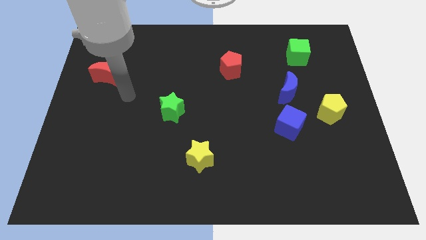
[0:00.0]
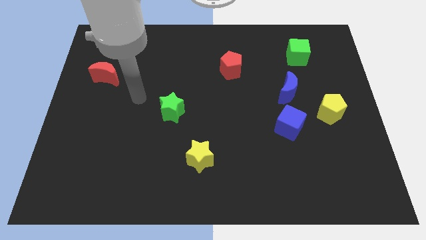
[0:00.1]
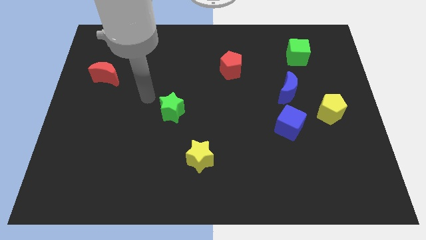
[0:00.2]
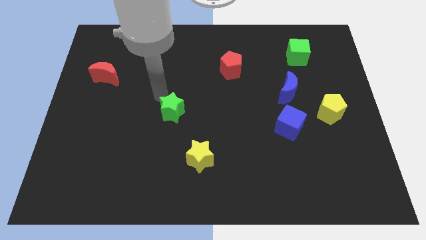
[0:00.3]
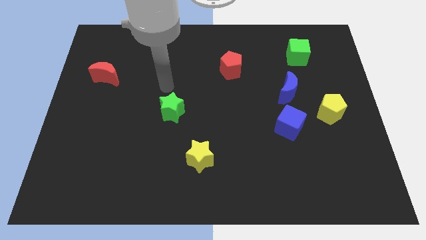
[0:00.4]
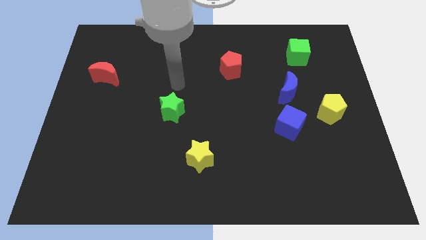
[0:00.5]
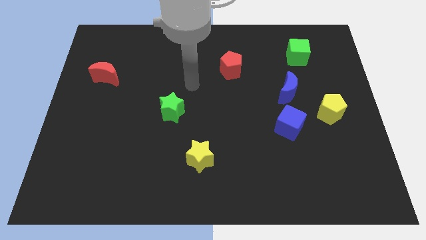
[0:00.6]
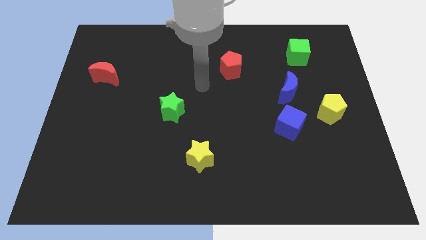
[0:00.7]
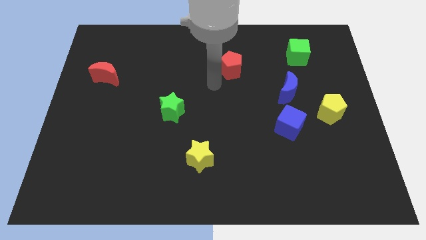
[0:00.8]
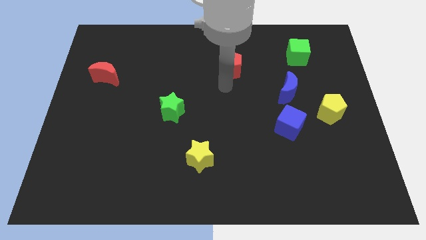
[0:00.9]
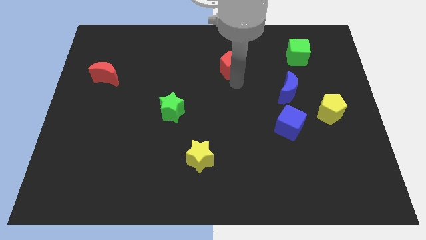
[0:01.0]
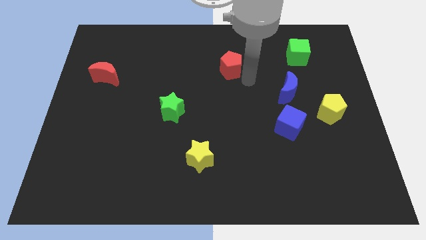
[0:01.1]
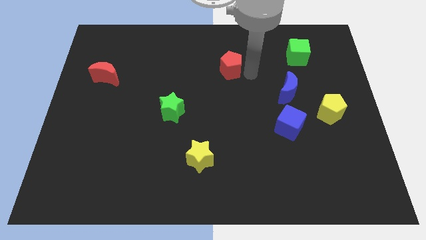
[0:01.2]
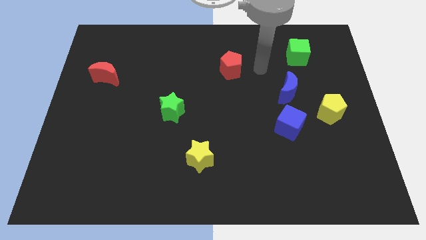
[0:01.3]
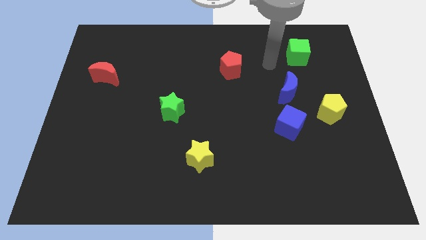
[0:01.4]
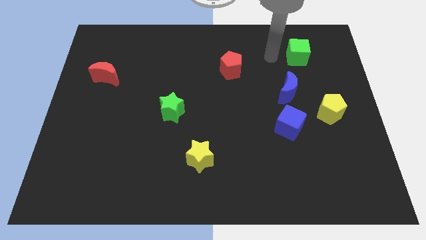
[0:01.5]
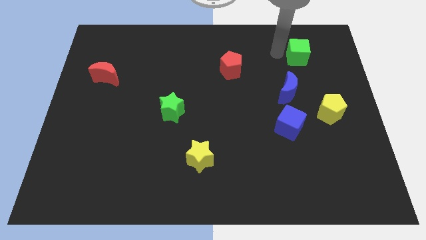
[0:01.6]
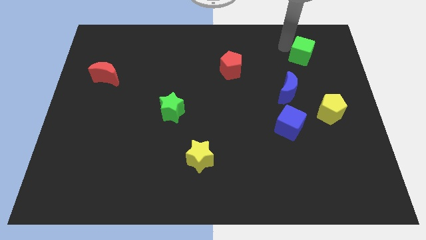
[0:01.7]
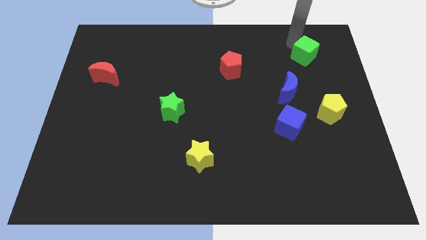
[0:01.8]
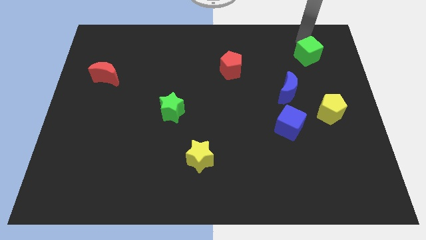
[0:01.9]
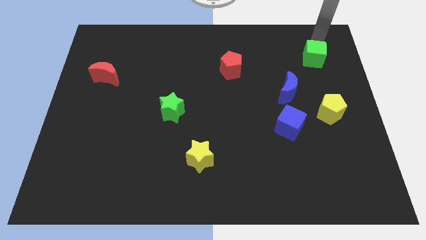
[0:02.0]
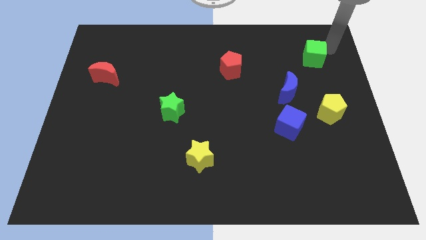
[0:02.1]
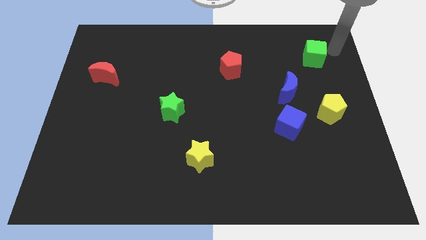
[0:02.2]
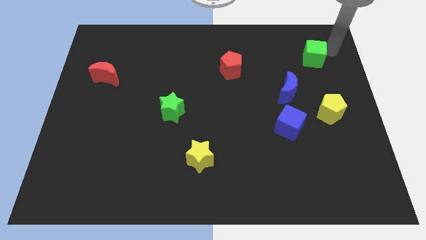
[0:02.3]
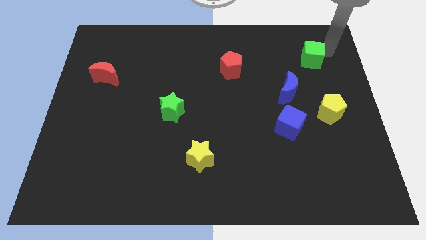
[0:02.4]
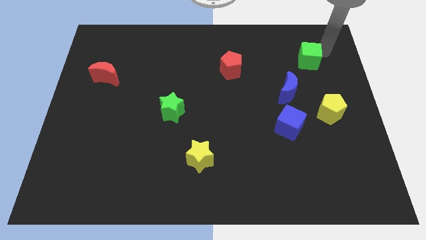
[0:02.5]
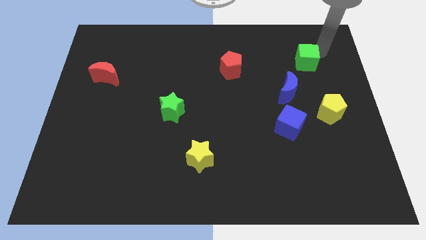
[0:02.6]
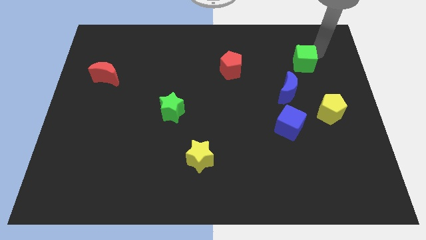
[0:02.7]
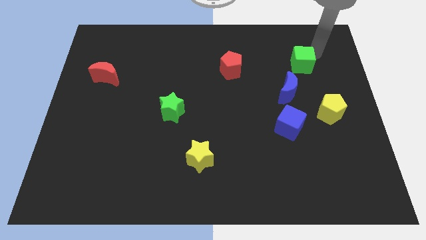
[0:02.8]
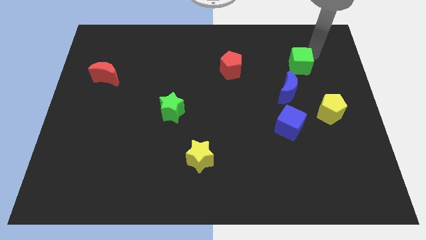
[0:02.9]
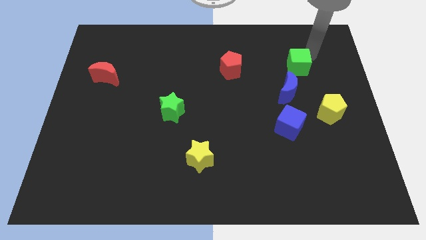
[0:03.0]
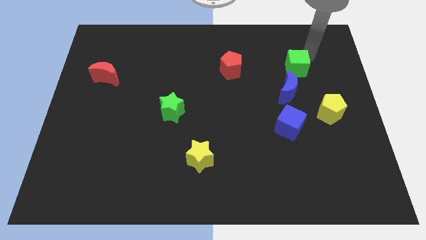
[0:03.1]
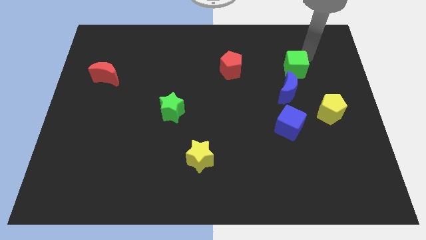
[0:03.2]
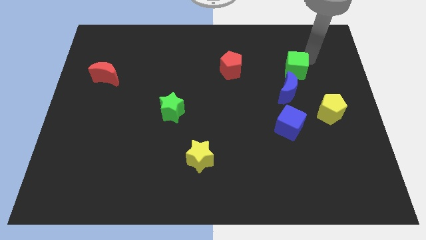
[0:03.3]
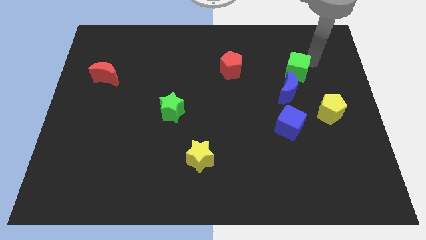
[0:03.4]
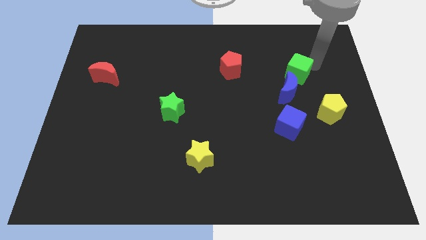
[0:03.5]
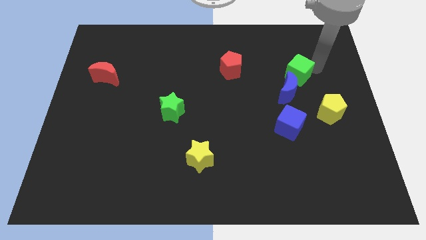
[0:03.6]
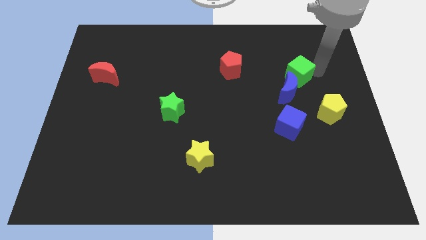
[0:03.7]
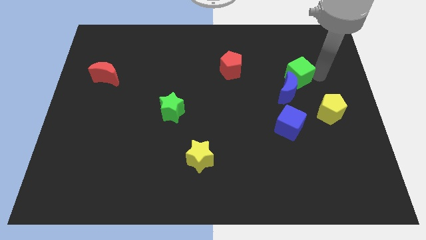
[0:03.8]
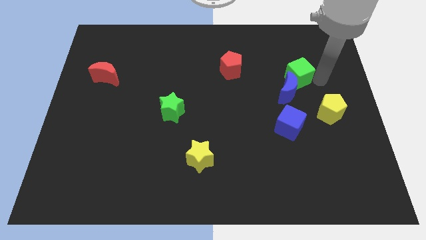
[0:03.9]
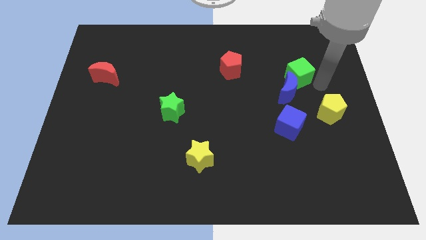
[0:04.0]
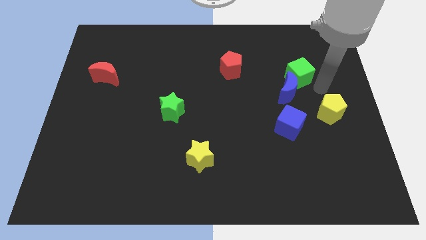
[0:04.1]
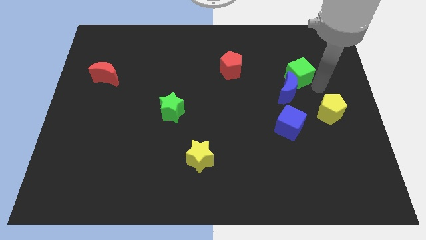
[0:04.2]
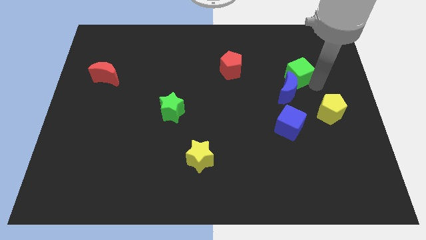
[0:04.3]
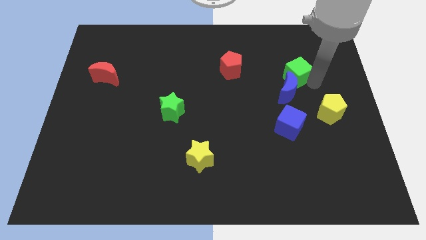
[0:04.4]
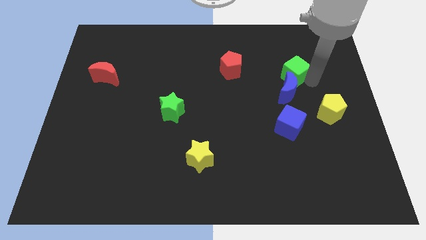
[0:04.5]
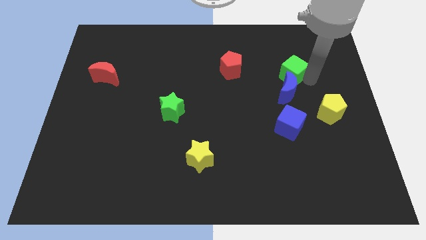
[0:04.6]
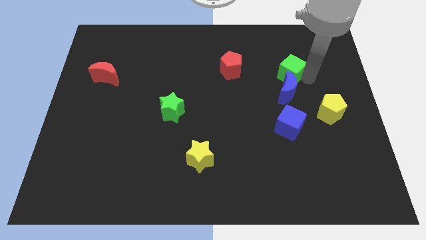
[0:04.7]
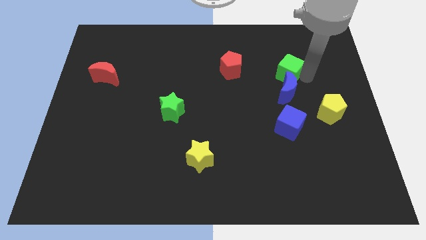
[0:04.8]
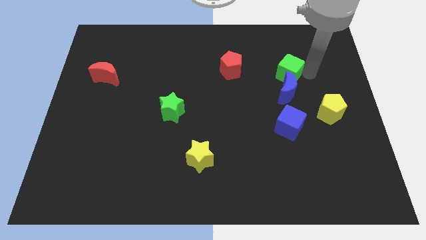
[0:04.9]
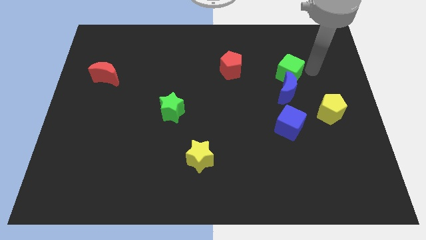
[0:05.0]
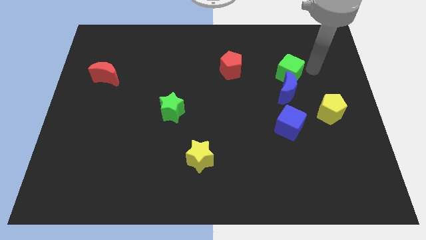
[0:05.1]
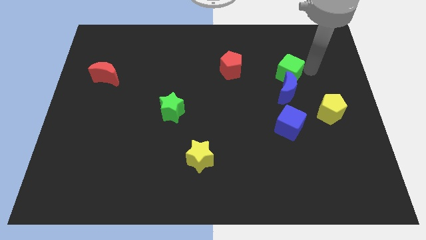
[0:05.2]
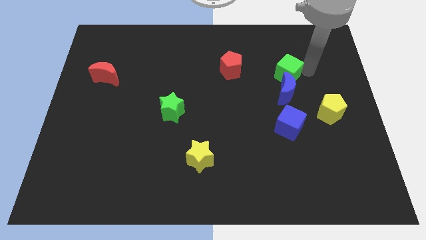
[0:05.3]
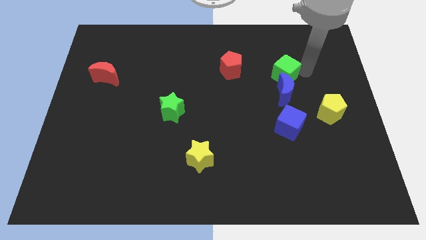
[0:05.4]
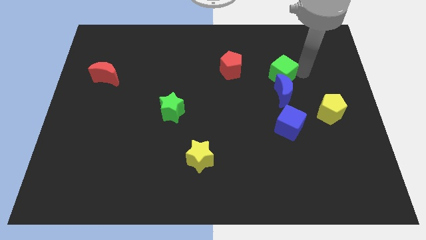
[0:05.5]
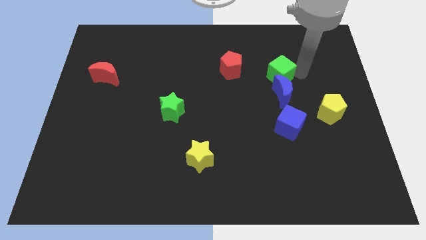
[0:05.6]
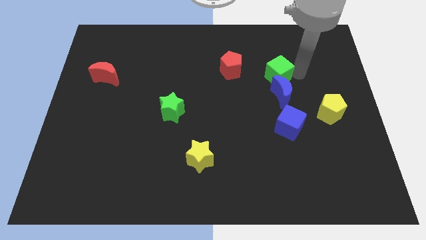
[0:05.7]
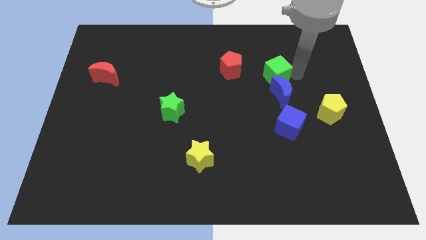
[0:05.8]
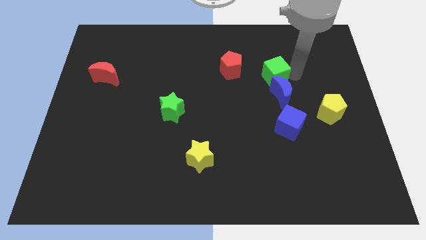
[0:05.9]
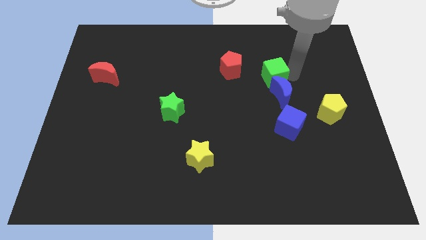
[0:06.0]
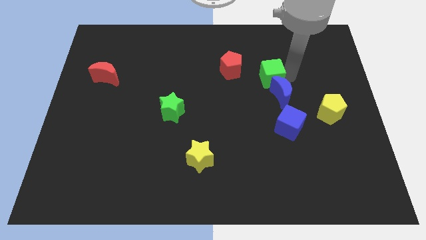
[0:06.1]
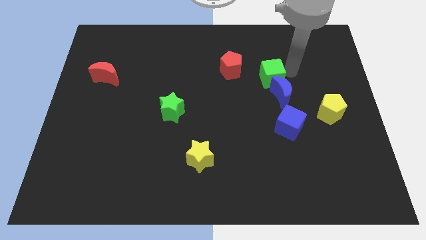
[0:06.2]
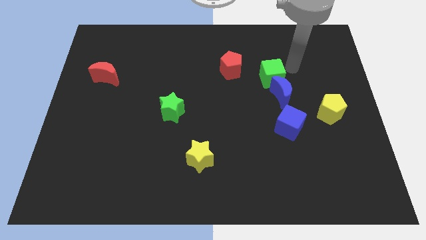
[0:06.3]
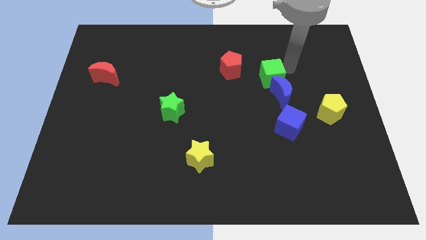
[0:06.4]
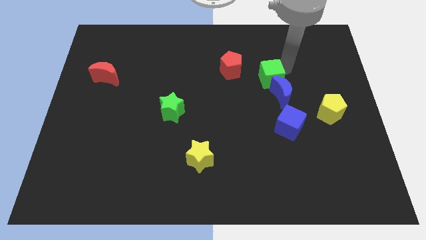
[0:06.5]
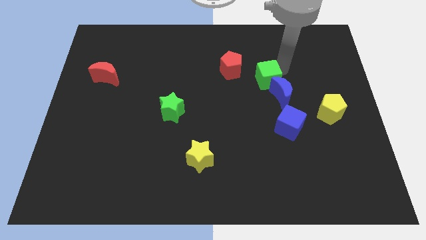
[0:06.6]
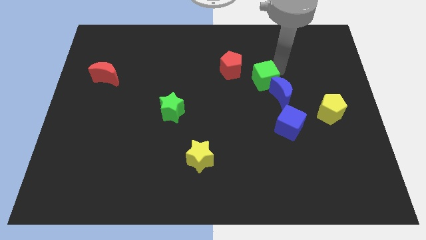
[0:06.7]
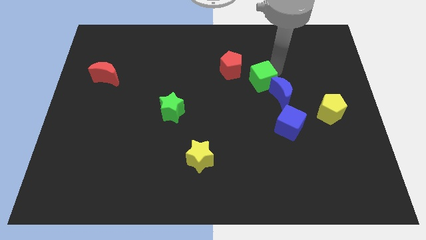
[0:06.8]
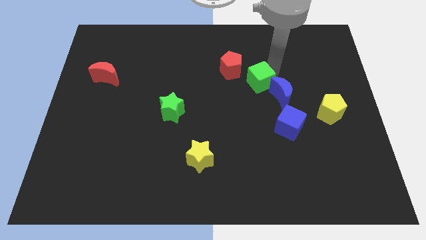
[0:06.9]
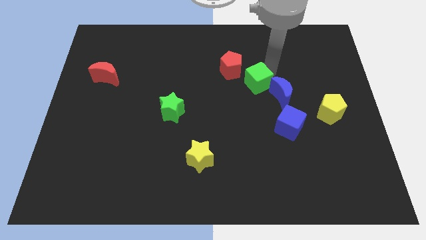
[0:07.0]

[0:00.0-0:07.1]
slide the green cube to the middle
